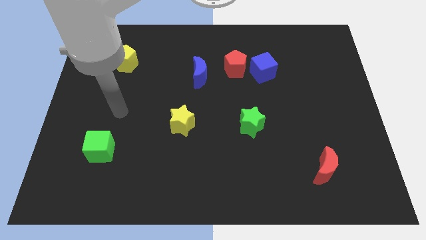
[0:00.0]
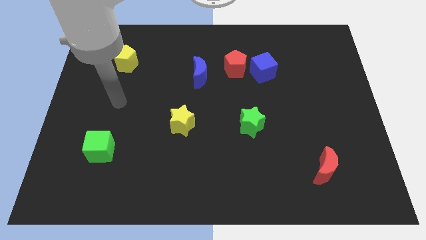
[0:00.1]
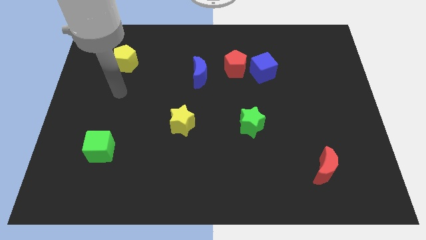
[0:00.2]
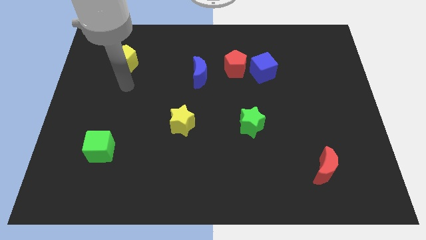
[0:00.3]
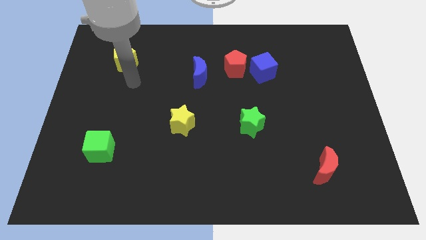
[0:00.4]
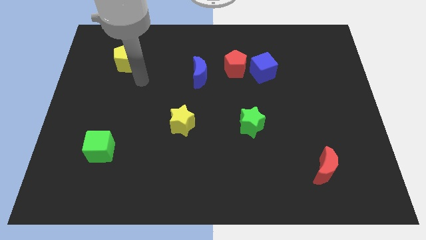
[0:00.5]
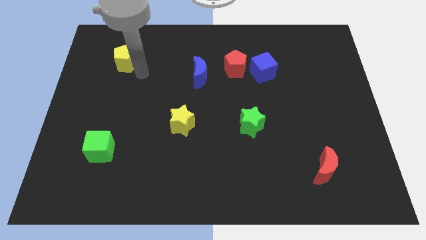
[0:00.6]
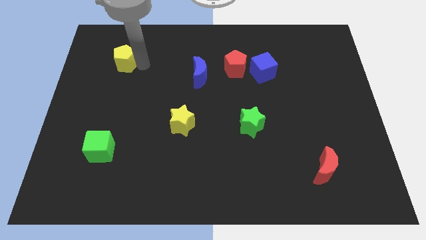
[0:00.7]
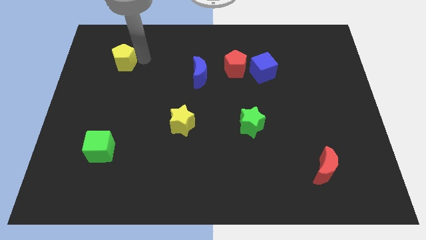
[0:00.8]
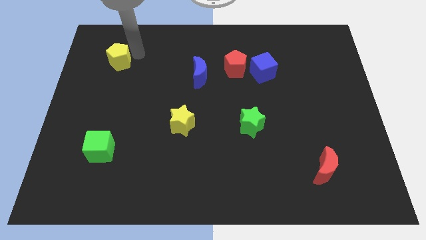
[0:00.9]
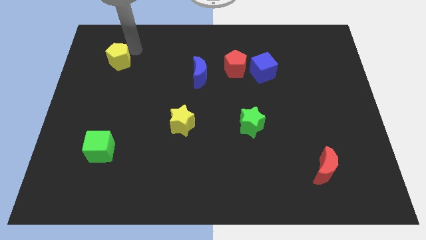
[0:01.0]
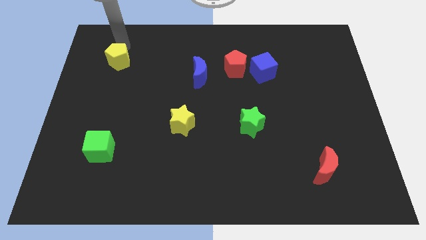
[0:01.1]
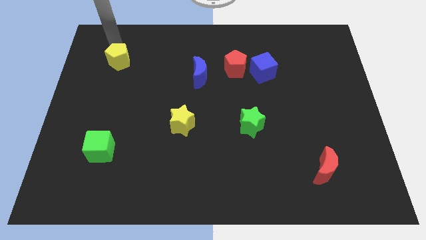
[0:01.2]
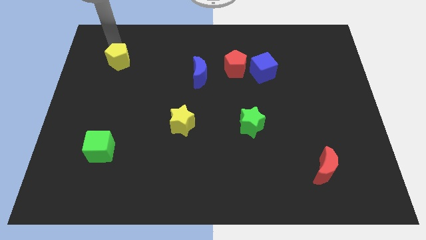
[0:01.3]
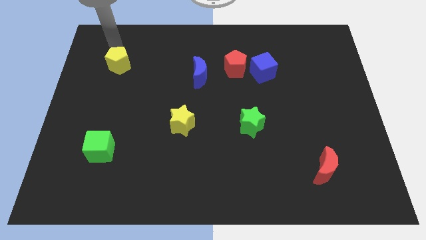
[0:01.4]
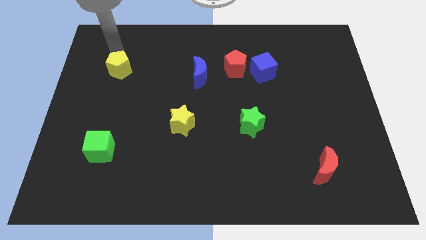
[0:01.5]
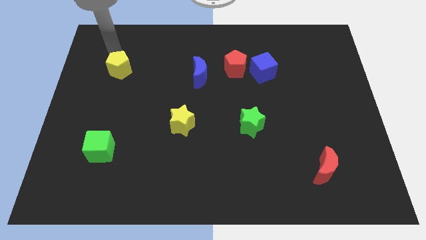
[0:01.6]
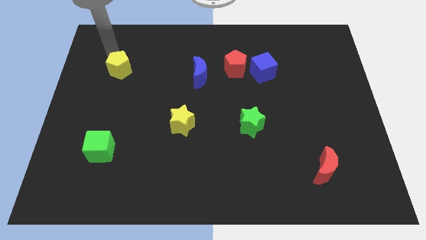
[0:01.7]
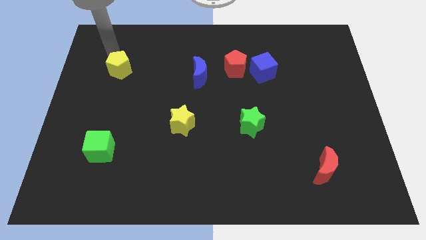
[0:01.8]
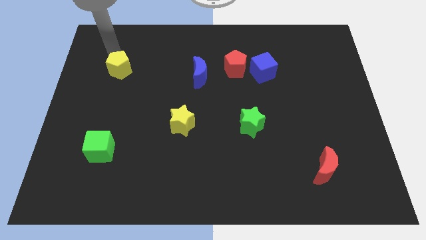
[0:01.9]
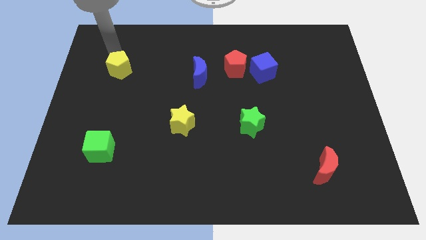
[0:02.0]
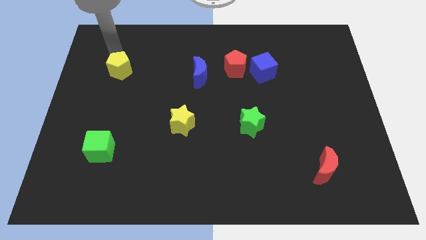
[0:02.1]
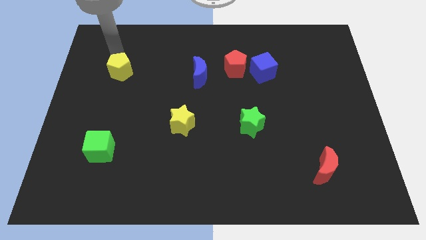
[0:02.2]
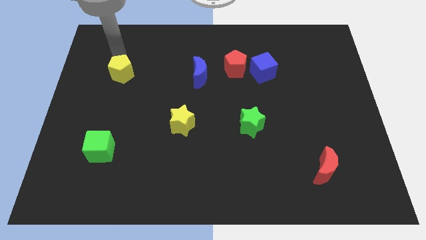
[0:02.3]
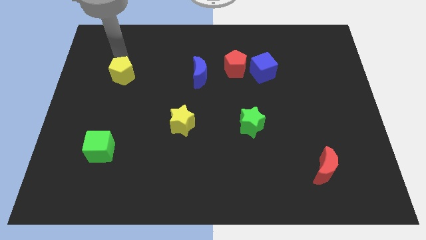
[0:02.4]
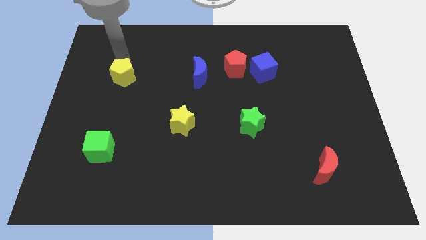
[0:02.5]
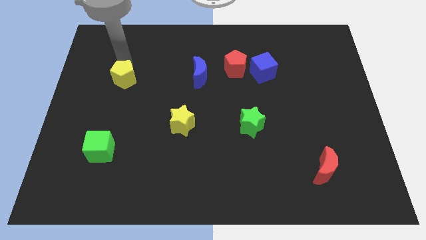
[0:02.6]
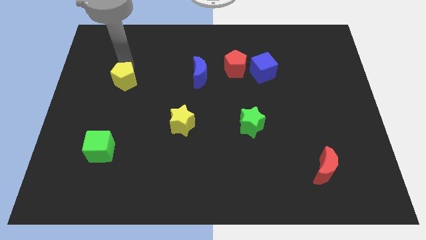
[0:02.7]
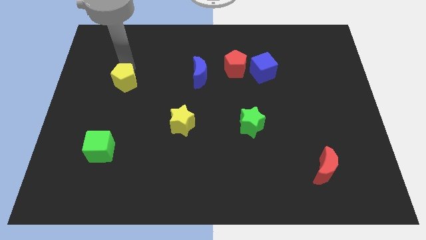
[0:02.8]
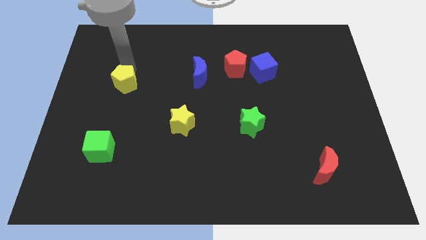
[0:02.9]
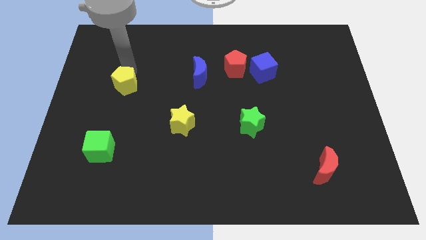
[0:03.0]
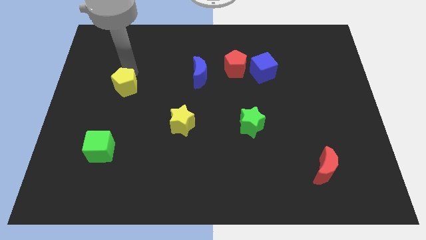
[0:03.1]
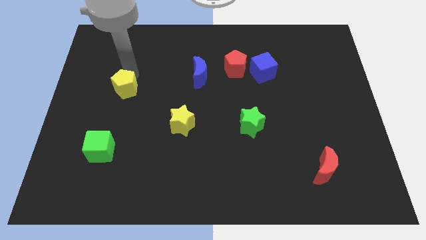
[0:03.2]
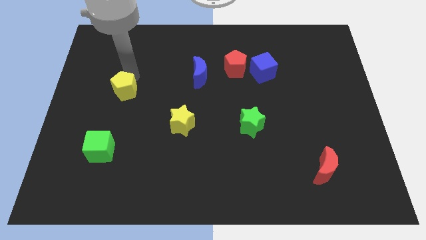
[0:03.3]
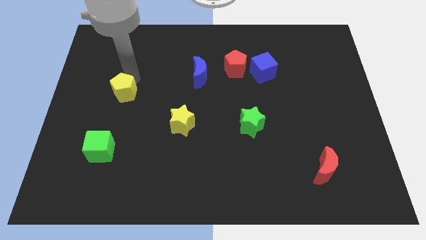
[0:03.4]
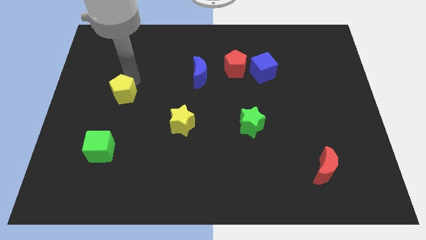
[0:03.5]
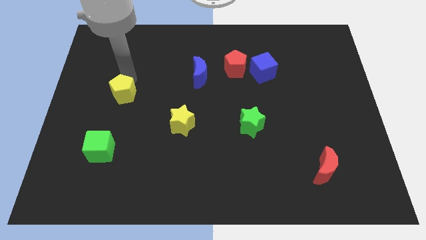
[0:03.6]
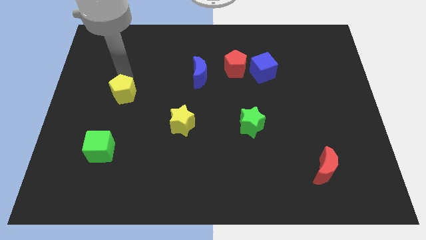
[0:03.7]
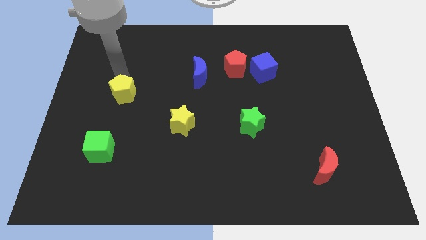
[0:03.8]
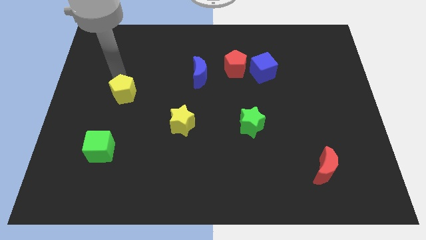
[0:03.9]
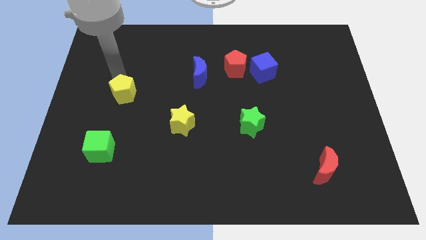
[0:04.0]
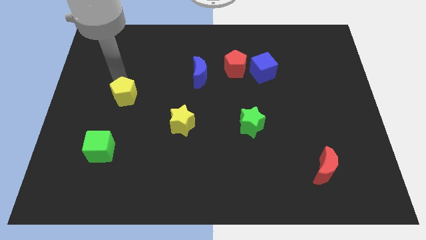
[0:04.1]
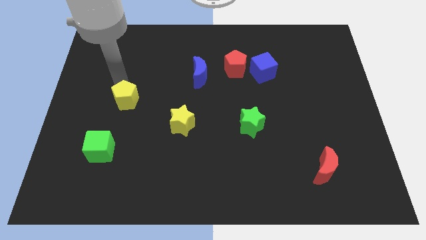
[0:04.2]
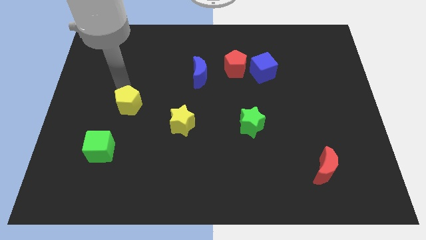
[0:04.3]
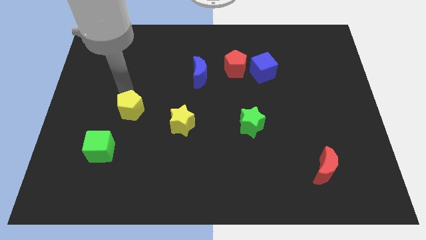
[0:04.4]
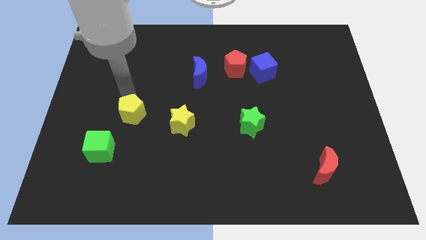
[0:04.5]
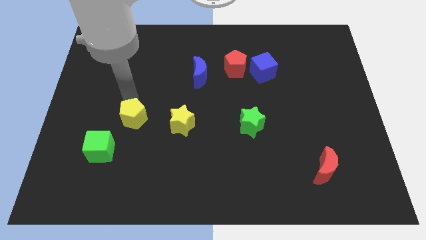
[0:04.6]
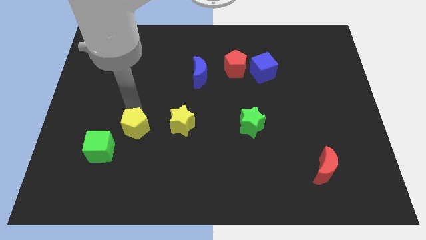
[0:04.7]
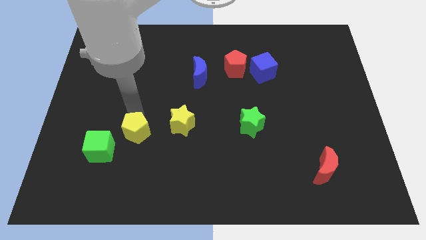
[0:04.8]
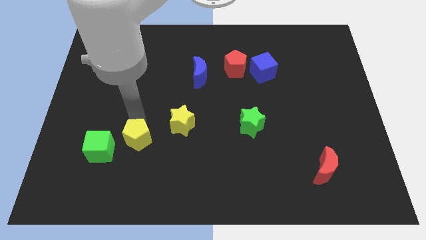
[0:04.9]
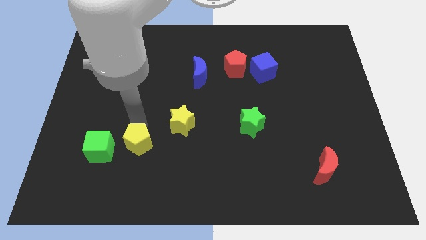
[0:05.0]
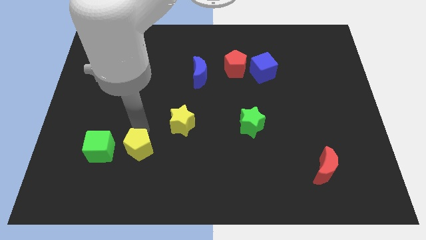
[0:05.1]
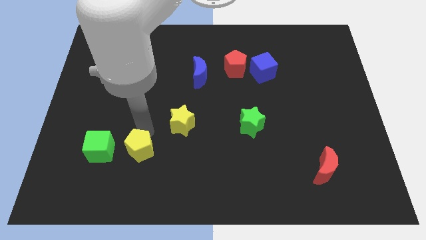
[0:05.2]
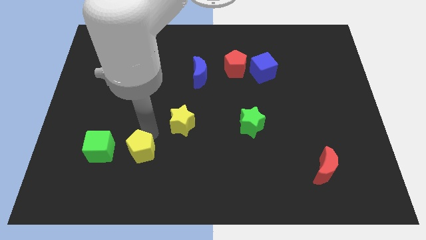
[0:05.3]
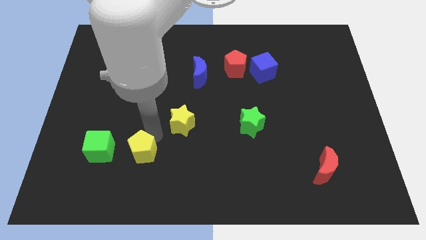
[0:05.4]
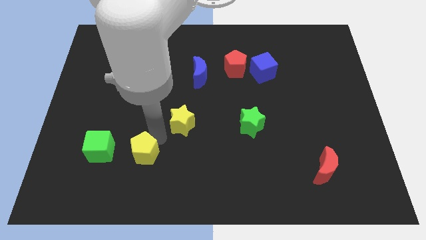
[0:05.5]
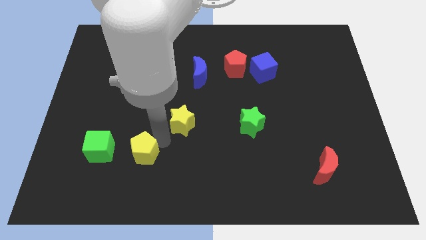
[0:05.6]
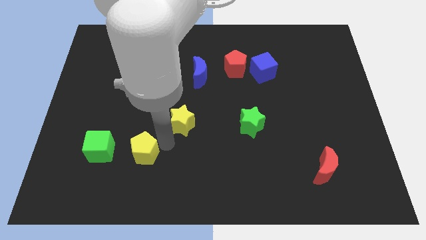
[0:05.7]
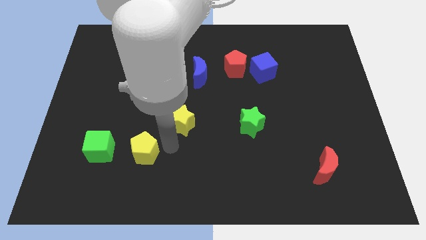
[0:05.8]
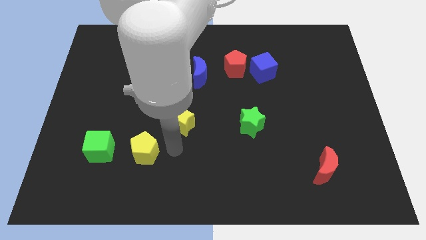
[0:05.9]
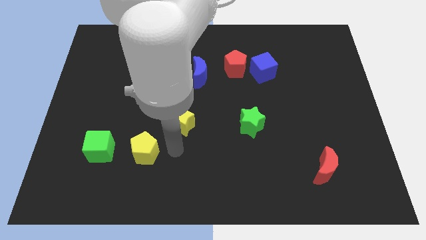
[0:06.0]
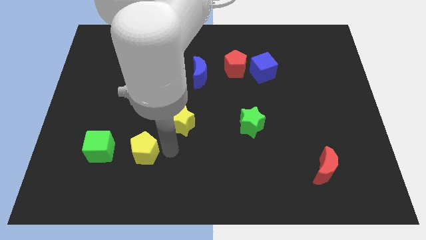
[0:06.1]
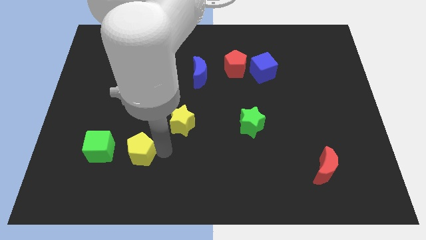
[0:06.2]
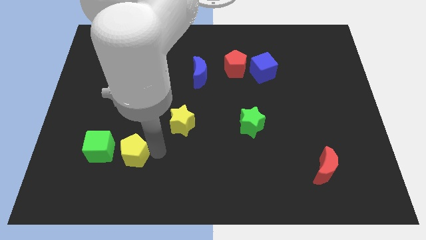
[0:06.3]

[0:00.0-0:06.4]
push the yellow pentagon to the bottom right of the green cube

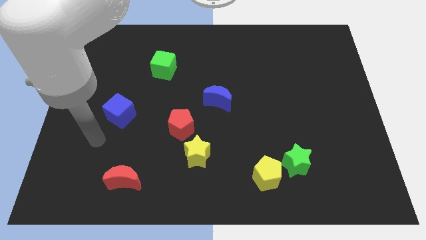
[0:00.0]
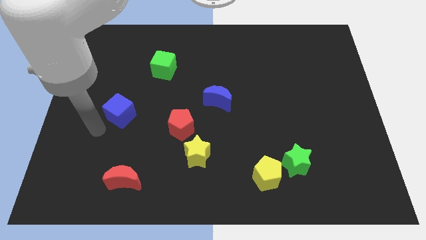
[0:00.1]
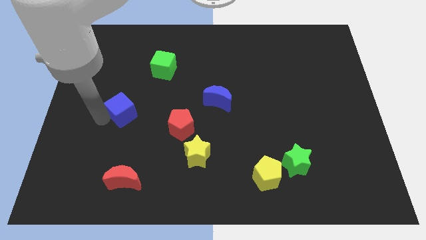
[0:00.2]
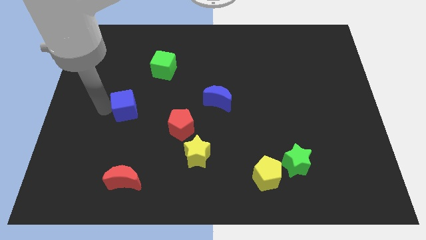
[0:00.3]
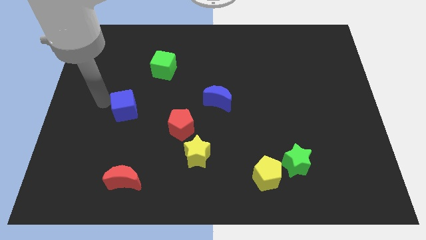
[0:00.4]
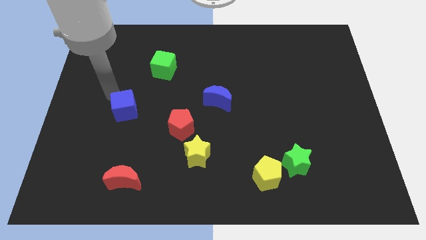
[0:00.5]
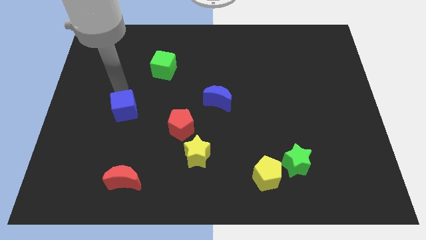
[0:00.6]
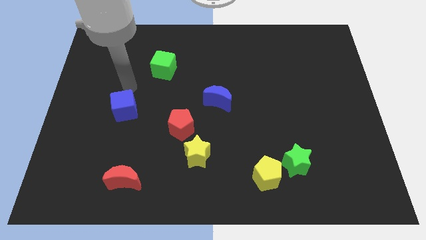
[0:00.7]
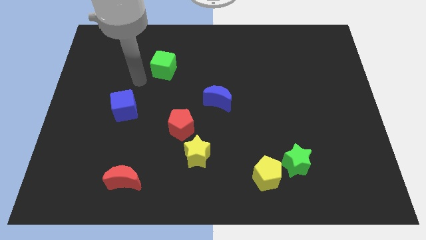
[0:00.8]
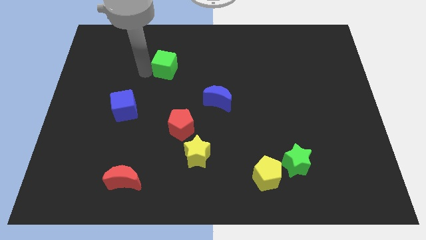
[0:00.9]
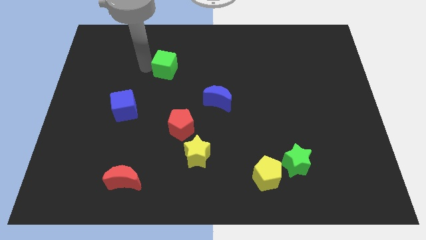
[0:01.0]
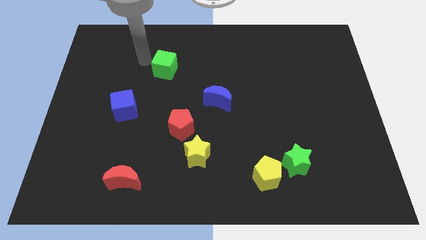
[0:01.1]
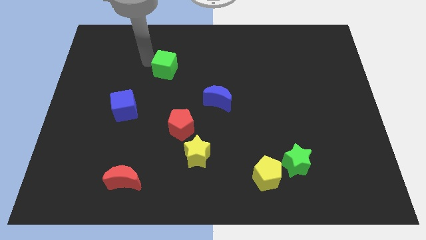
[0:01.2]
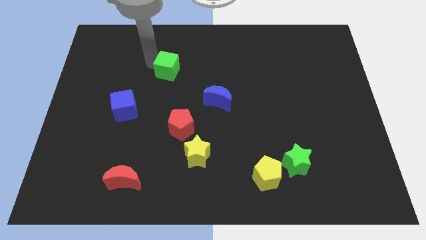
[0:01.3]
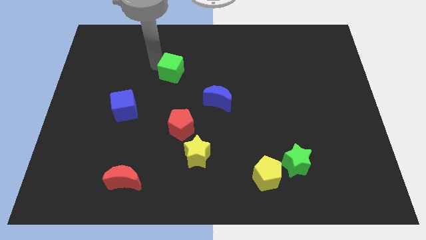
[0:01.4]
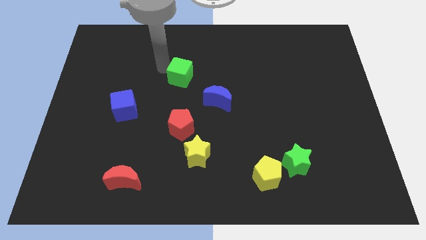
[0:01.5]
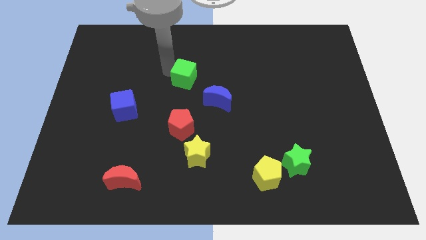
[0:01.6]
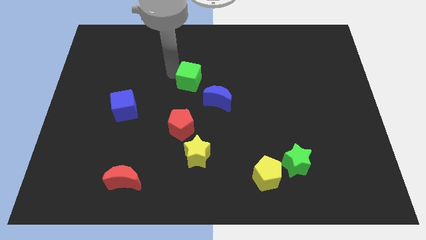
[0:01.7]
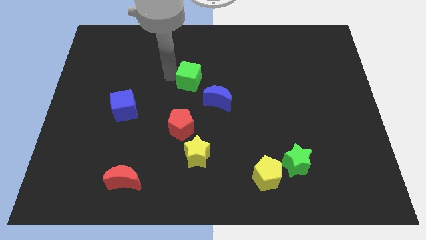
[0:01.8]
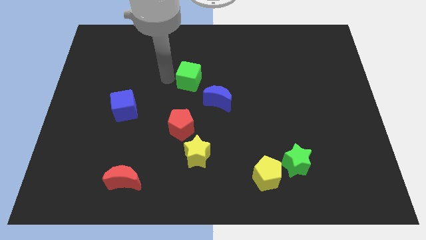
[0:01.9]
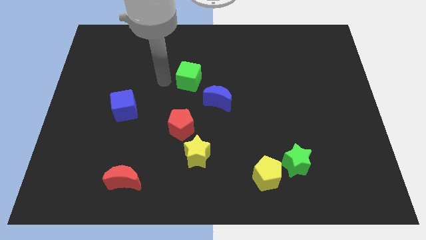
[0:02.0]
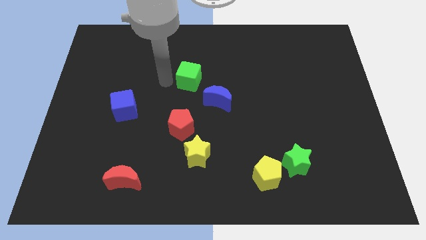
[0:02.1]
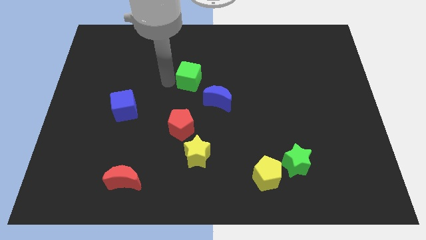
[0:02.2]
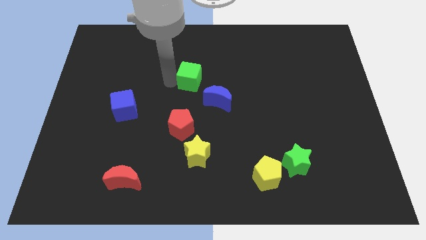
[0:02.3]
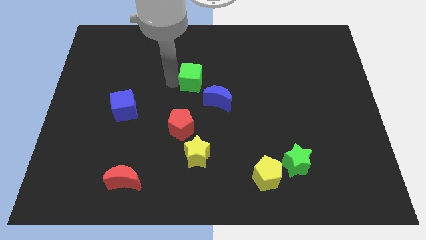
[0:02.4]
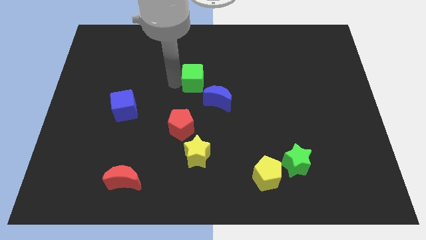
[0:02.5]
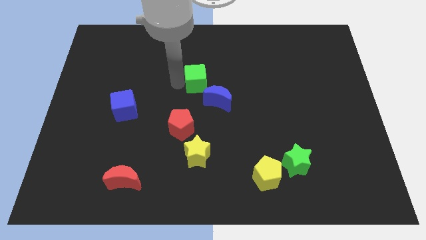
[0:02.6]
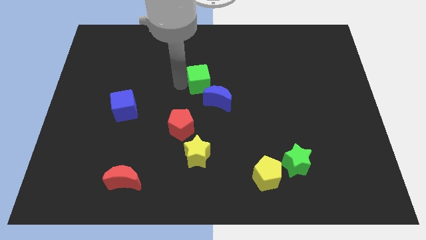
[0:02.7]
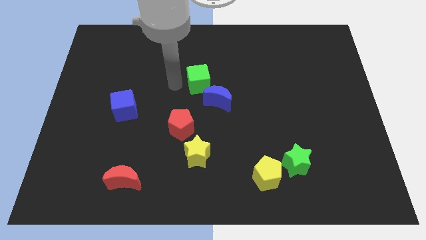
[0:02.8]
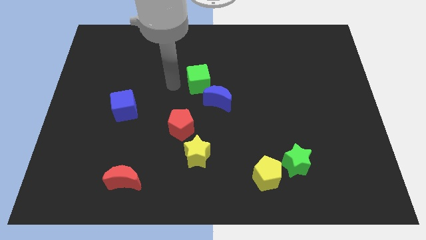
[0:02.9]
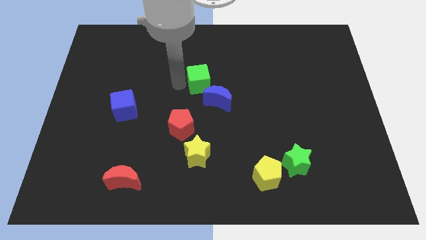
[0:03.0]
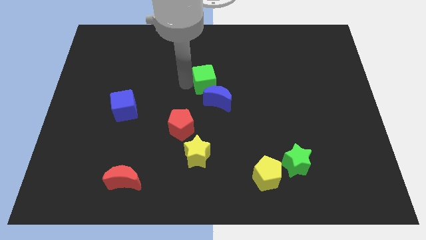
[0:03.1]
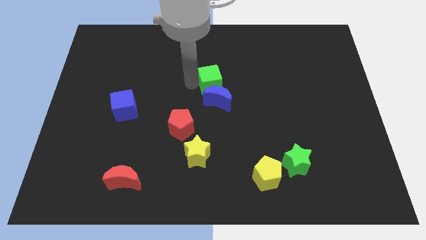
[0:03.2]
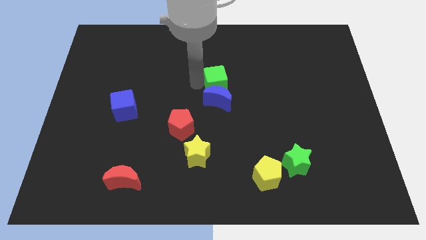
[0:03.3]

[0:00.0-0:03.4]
move the green cube to the top right of the blue moon
